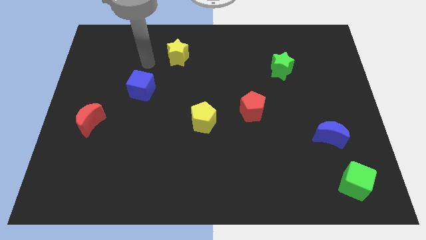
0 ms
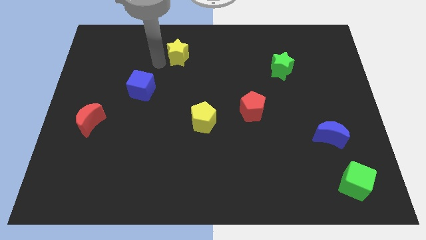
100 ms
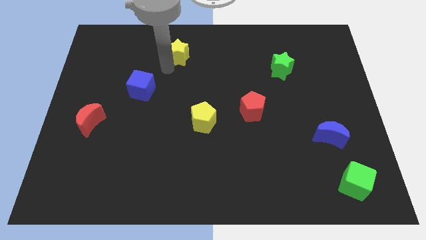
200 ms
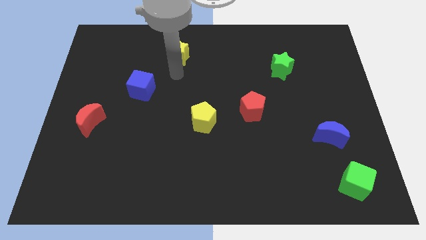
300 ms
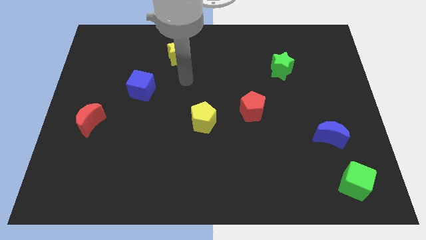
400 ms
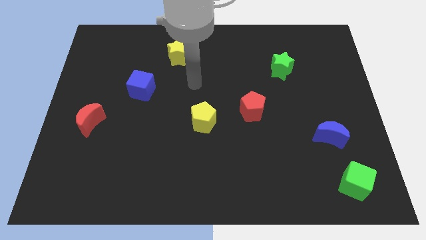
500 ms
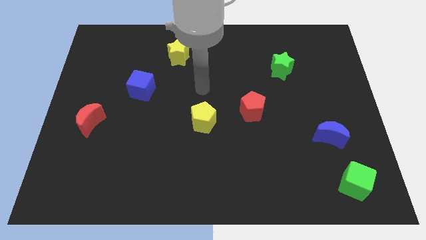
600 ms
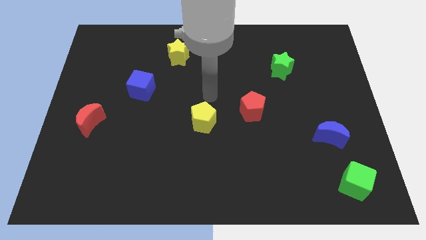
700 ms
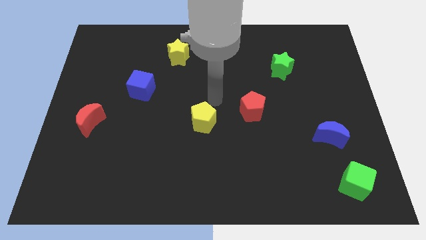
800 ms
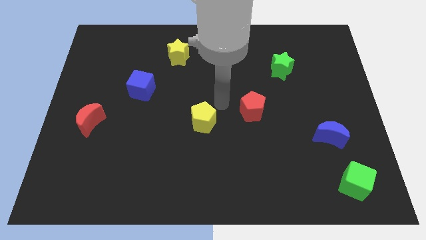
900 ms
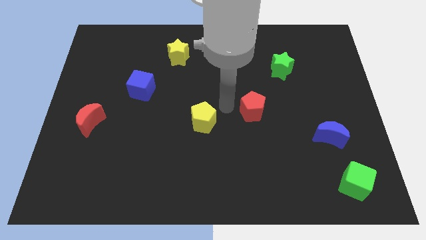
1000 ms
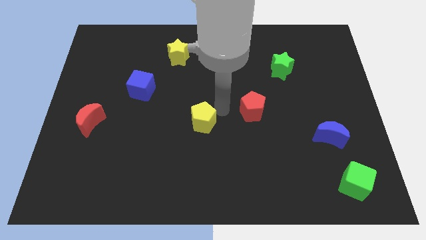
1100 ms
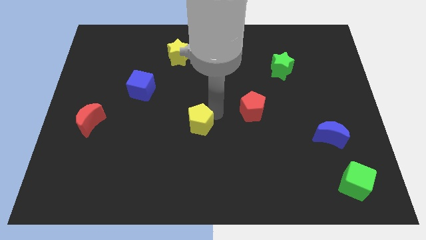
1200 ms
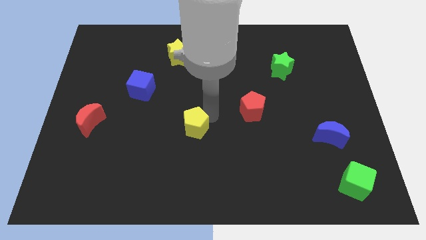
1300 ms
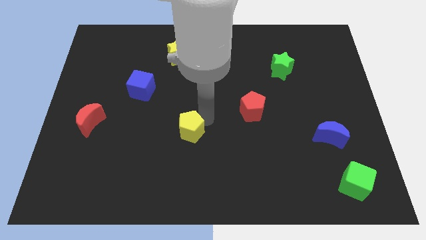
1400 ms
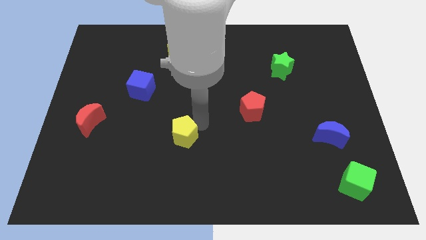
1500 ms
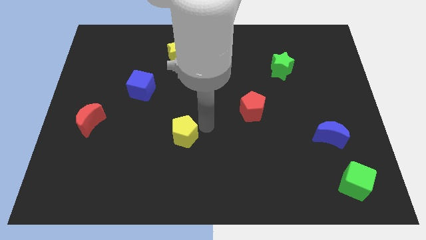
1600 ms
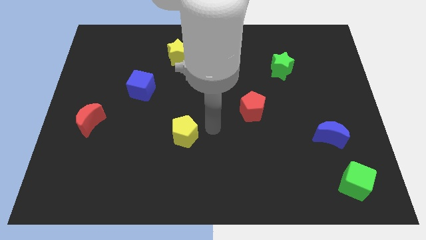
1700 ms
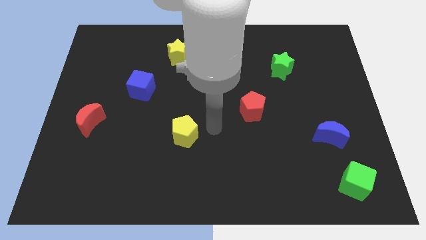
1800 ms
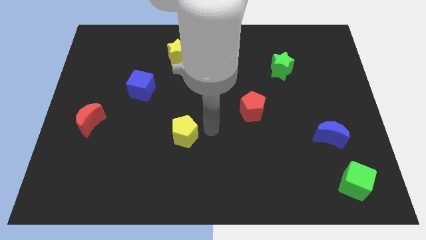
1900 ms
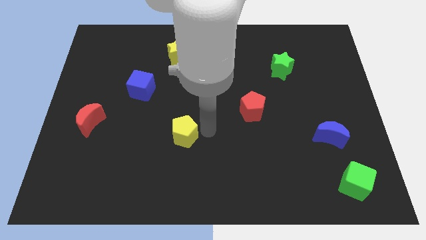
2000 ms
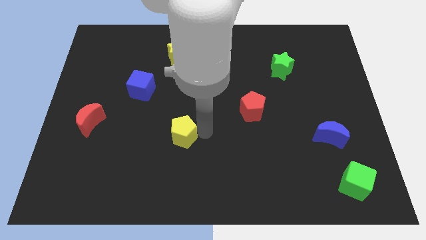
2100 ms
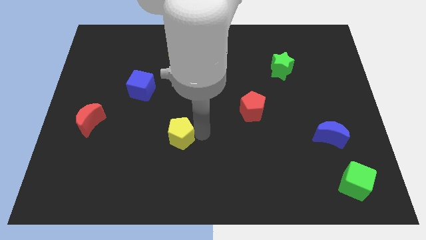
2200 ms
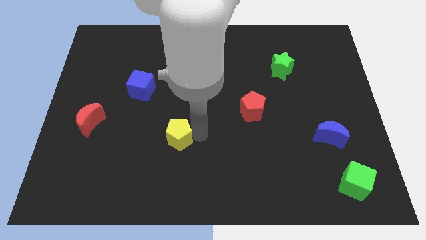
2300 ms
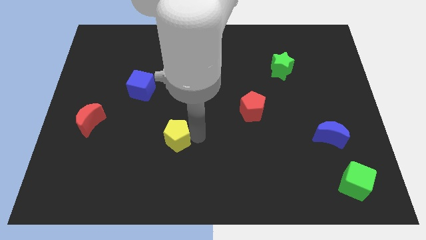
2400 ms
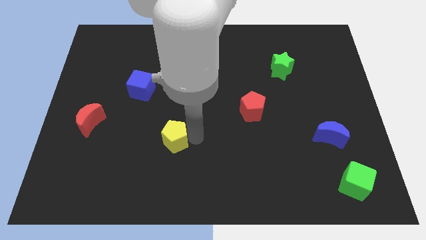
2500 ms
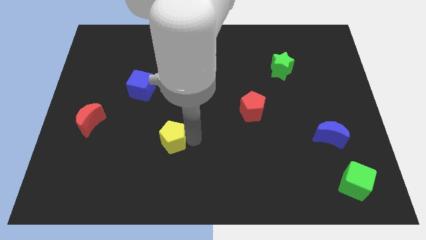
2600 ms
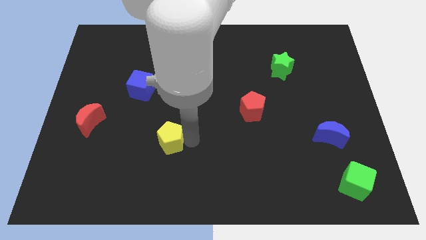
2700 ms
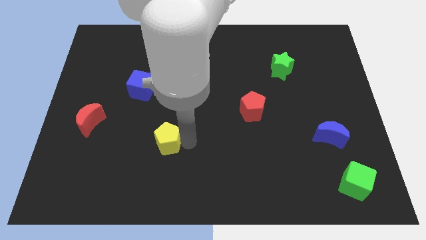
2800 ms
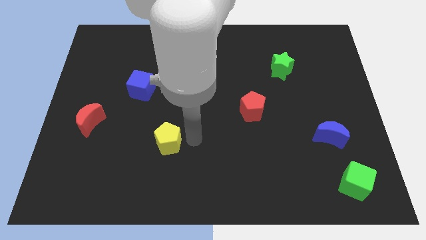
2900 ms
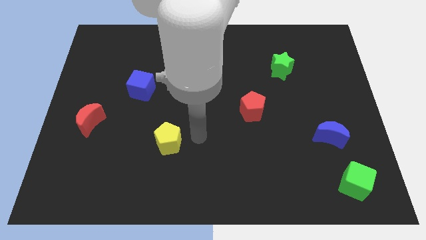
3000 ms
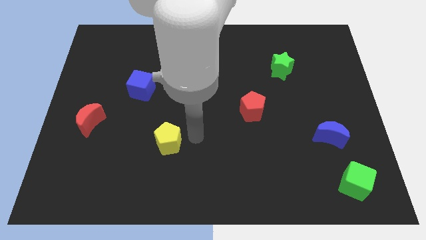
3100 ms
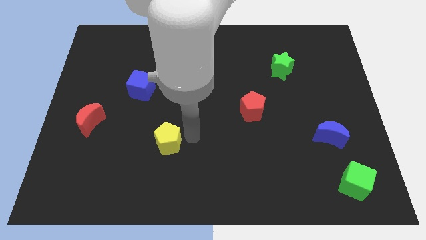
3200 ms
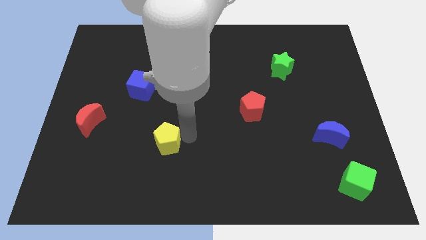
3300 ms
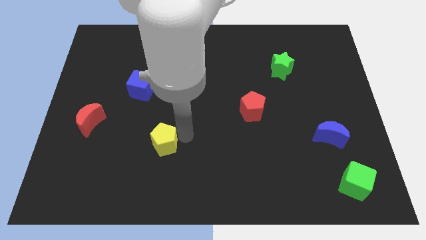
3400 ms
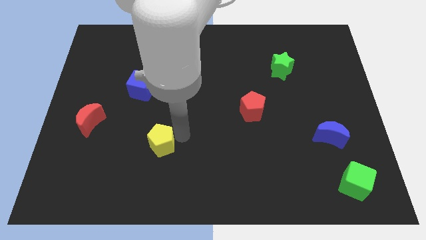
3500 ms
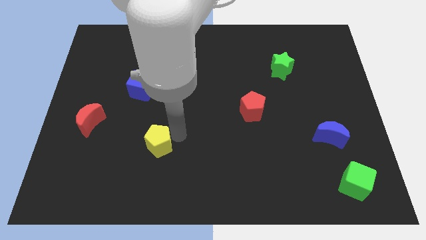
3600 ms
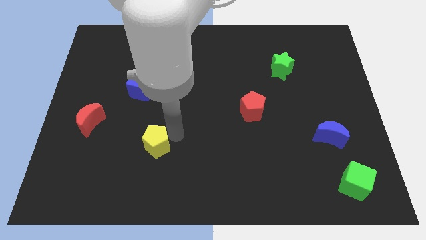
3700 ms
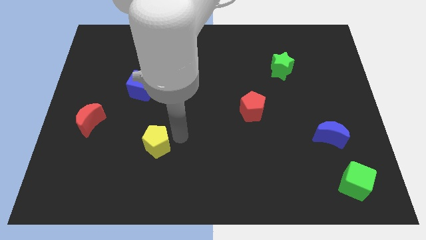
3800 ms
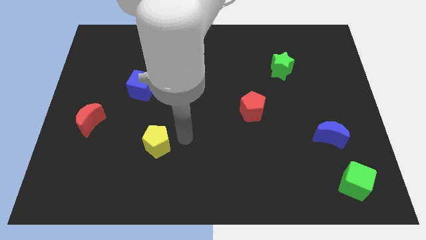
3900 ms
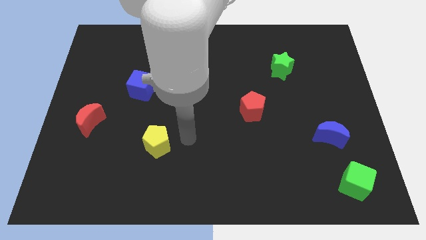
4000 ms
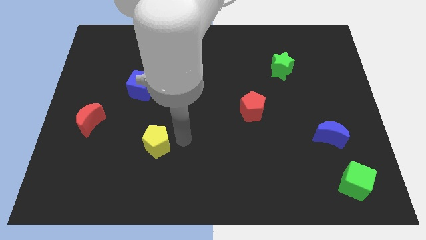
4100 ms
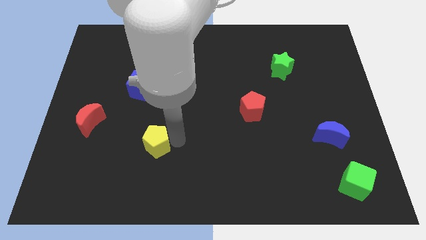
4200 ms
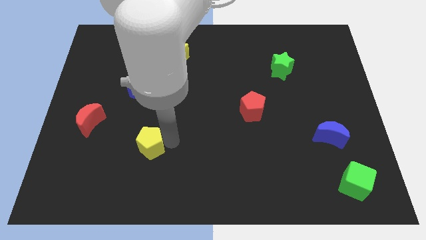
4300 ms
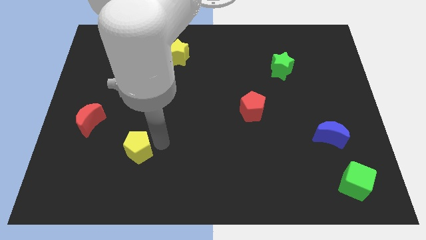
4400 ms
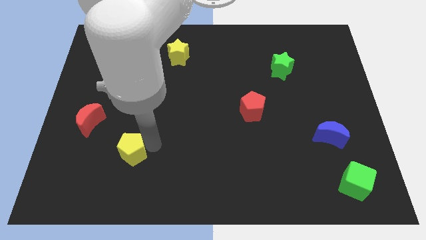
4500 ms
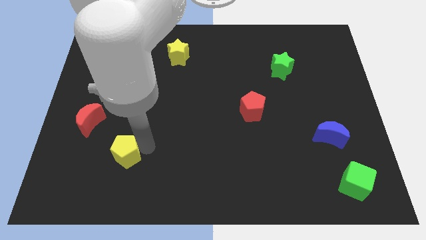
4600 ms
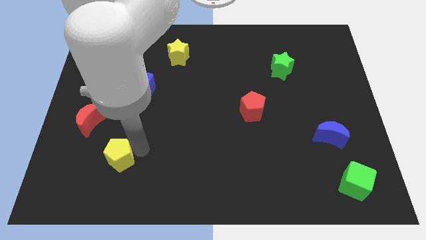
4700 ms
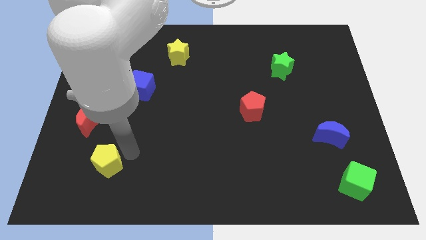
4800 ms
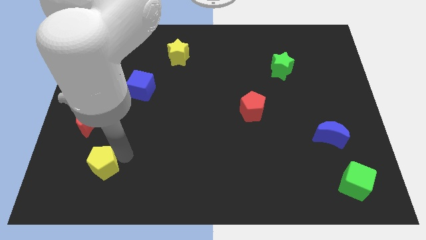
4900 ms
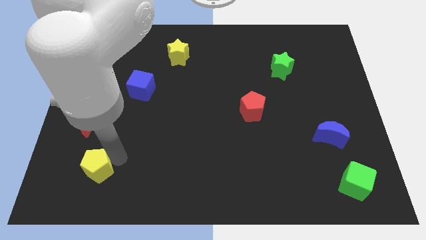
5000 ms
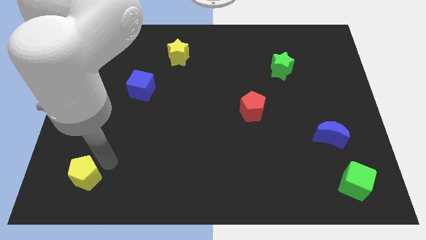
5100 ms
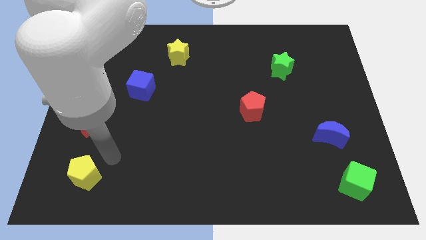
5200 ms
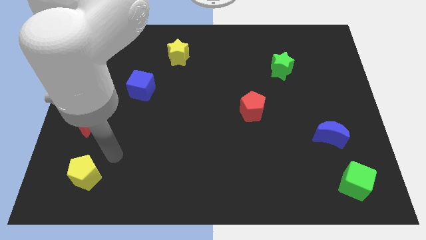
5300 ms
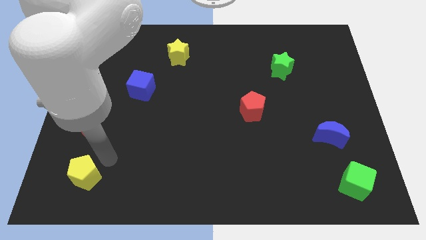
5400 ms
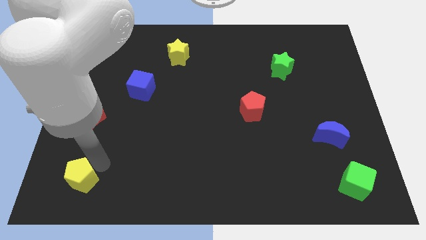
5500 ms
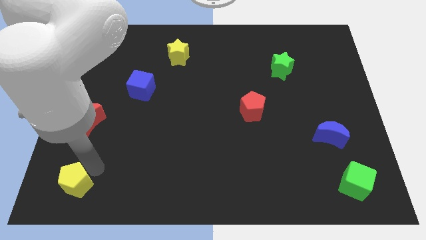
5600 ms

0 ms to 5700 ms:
move the yellow pentagon to the bottom left corner
